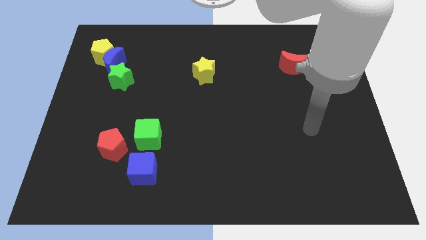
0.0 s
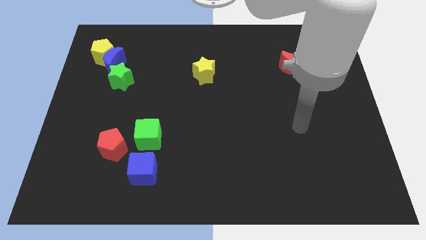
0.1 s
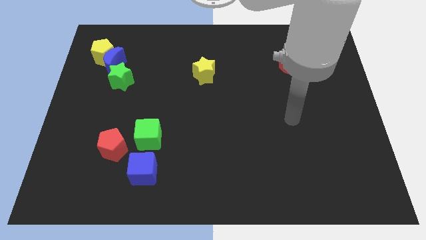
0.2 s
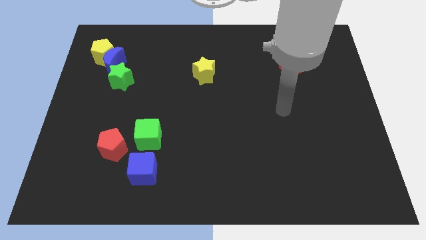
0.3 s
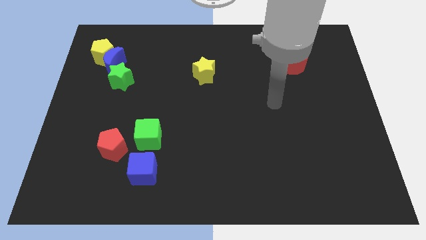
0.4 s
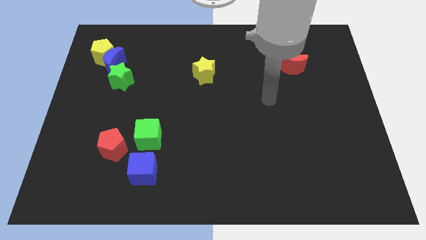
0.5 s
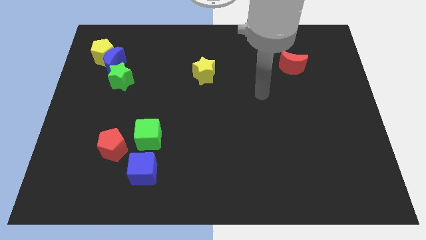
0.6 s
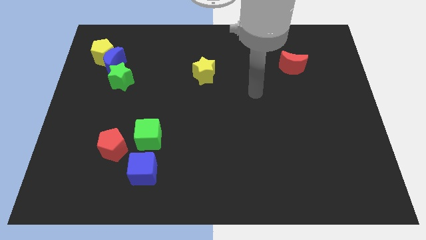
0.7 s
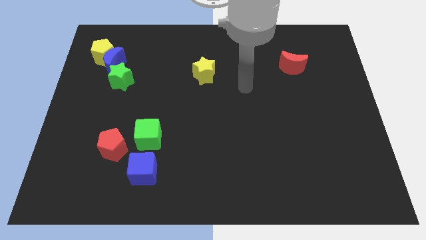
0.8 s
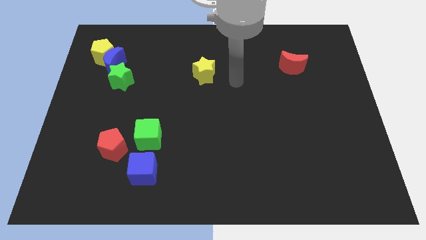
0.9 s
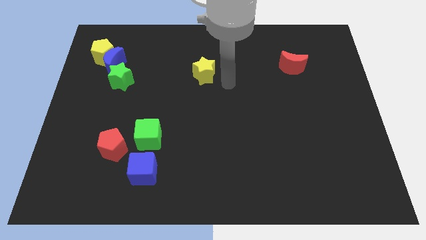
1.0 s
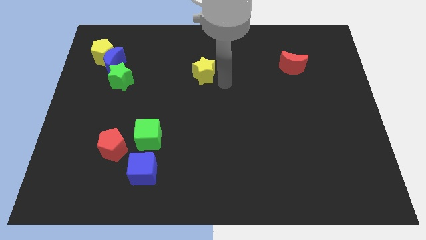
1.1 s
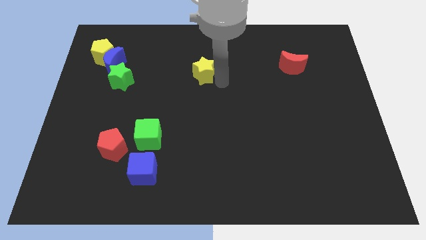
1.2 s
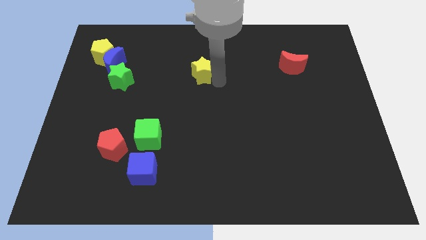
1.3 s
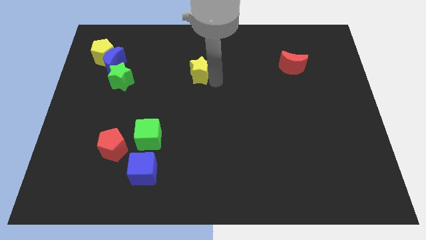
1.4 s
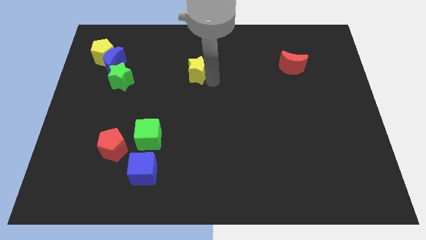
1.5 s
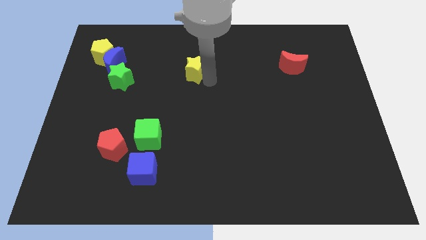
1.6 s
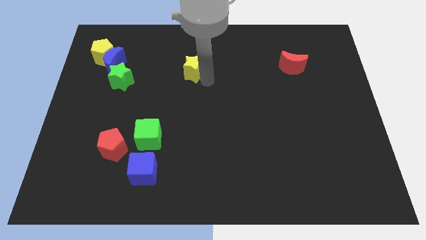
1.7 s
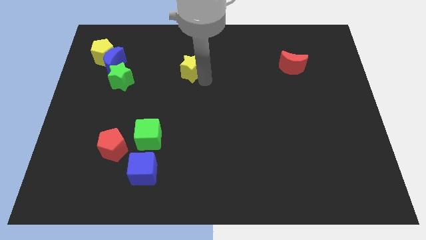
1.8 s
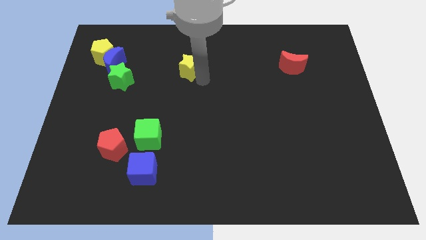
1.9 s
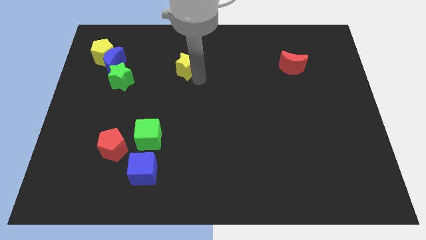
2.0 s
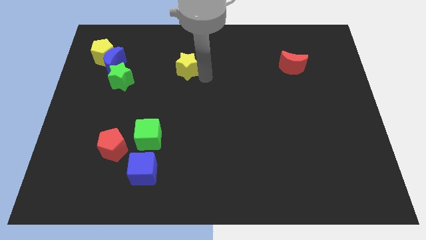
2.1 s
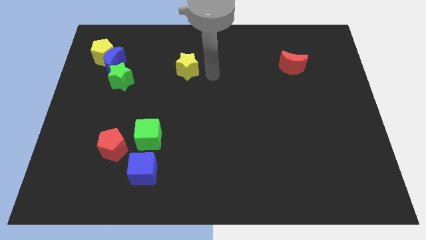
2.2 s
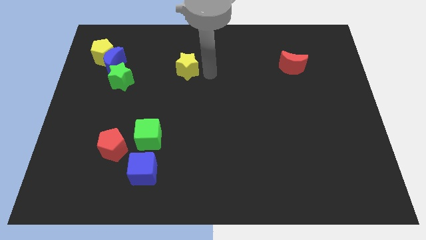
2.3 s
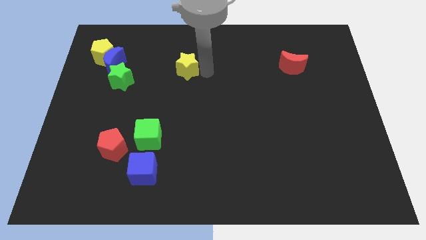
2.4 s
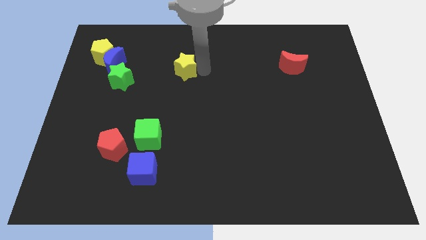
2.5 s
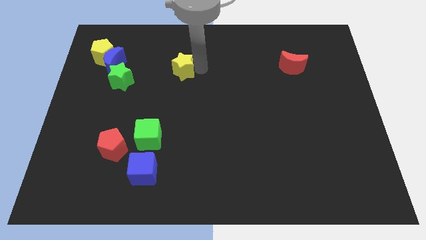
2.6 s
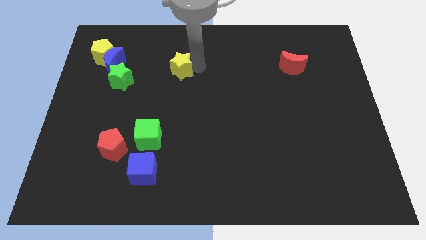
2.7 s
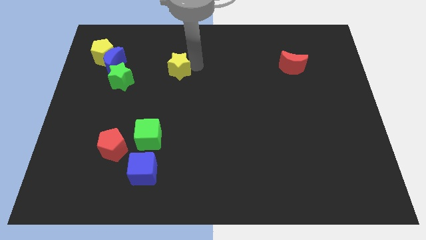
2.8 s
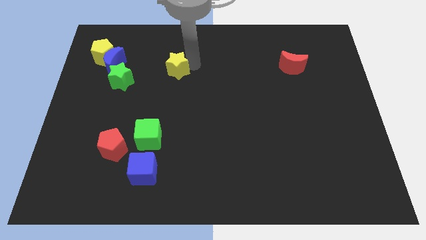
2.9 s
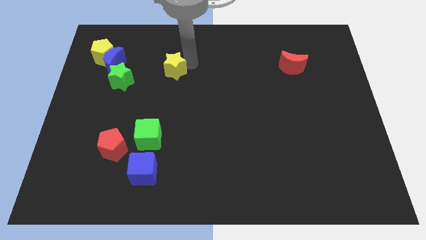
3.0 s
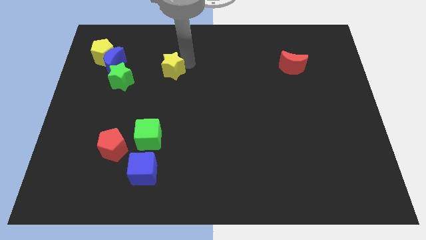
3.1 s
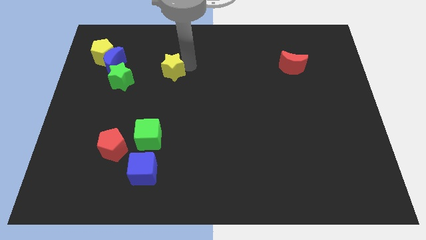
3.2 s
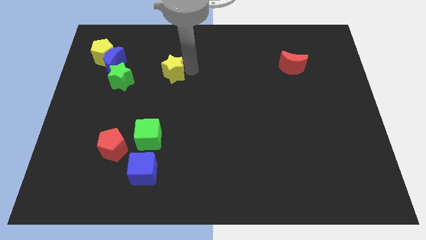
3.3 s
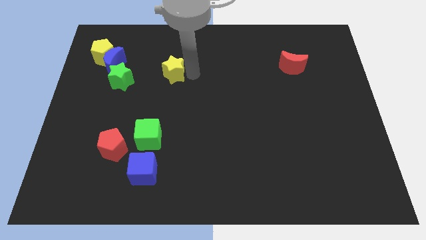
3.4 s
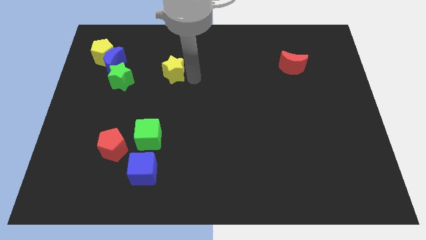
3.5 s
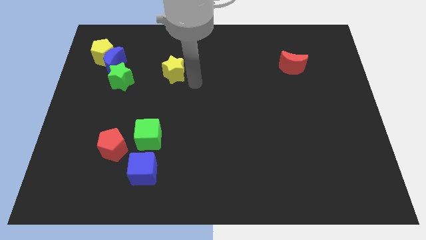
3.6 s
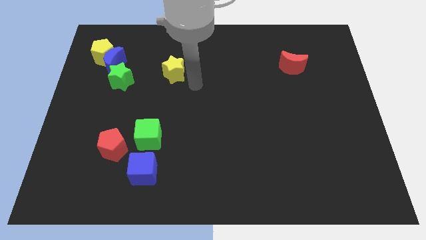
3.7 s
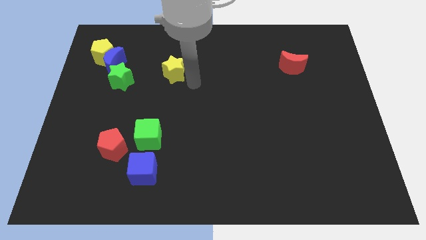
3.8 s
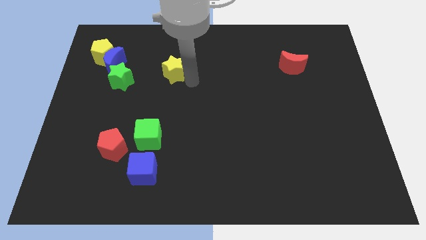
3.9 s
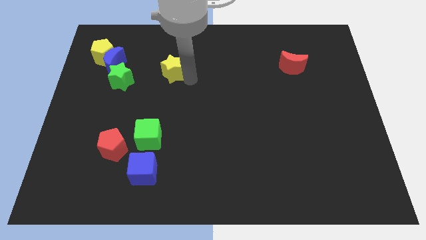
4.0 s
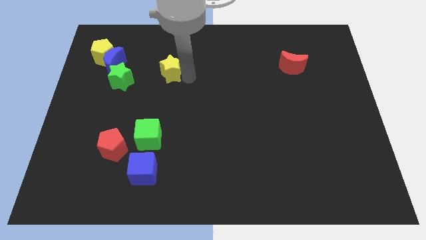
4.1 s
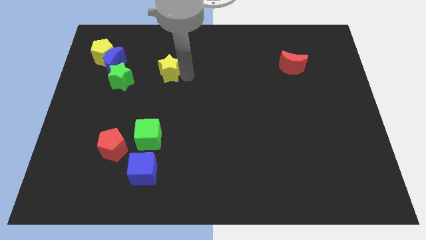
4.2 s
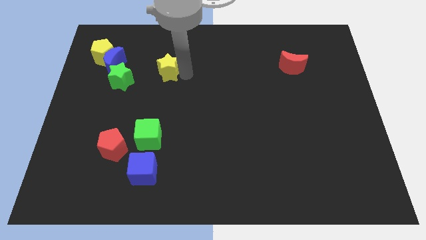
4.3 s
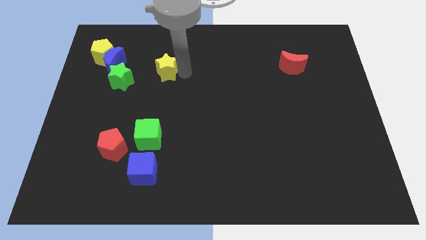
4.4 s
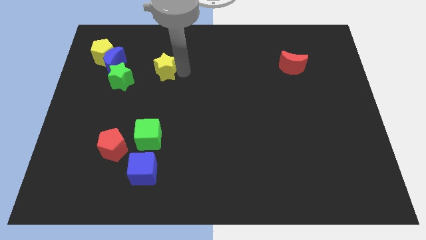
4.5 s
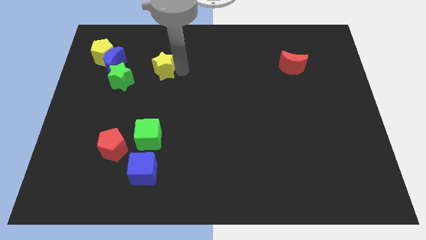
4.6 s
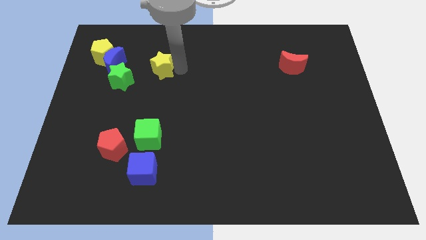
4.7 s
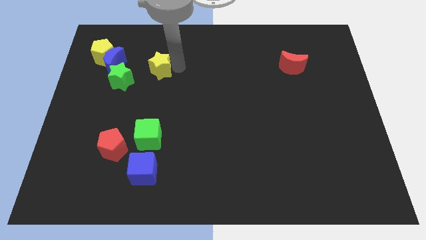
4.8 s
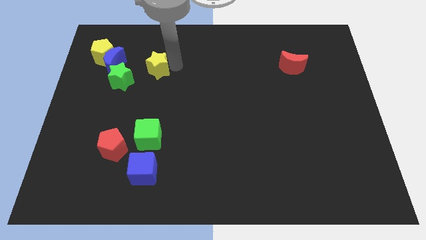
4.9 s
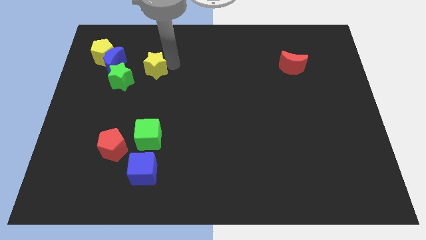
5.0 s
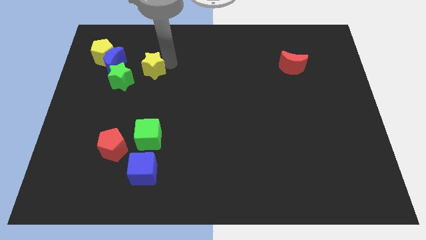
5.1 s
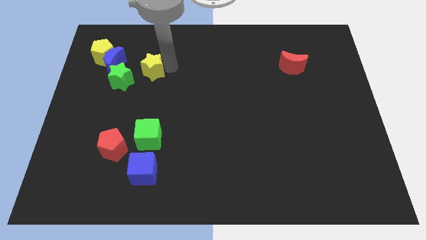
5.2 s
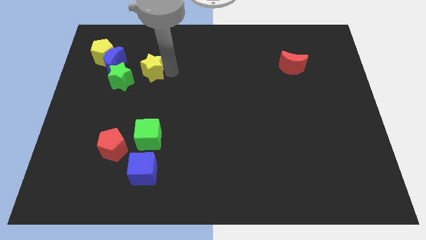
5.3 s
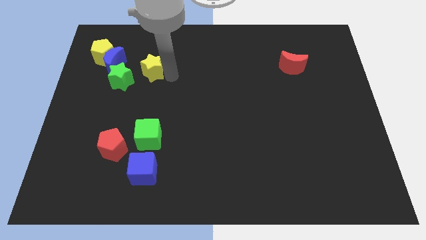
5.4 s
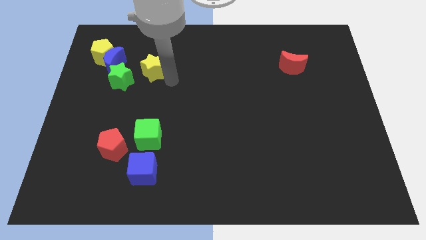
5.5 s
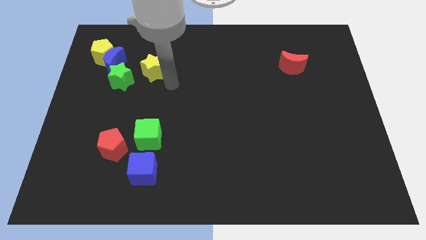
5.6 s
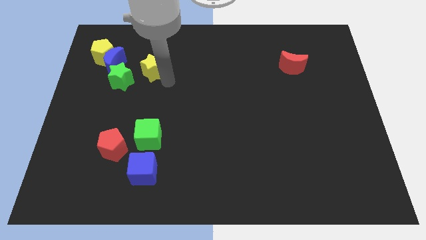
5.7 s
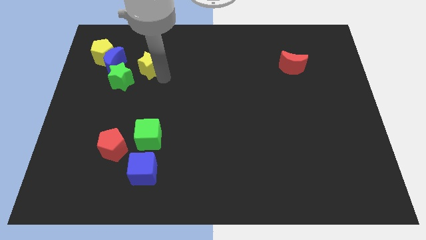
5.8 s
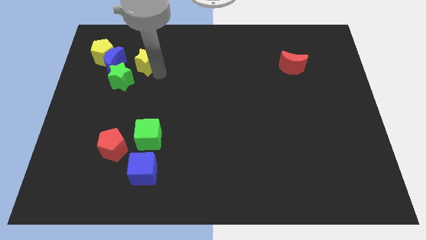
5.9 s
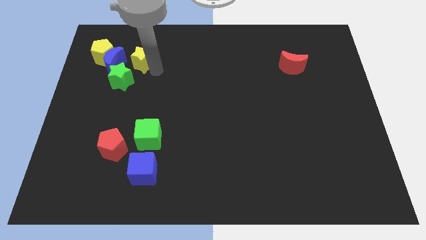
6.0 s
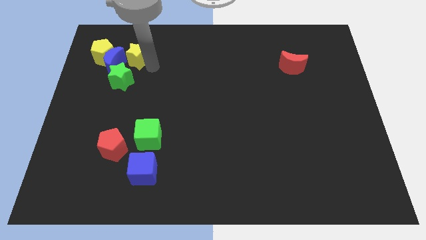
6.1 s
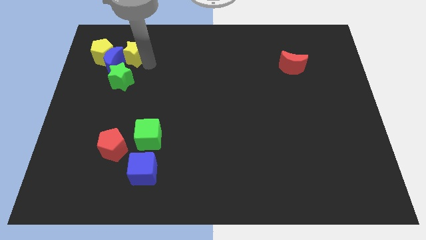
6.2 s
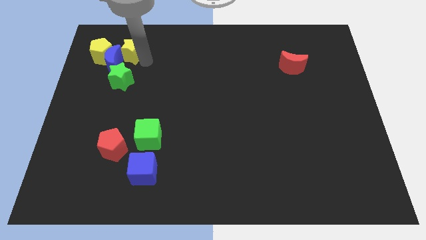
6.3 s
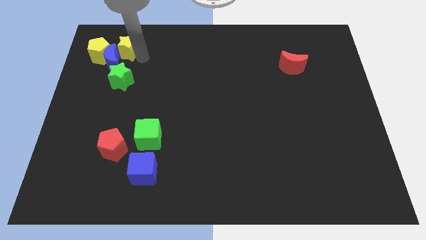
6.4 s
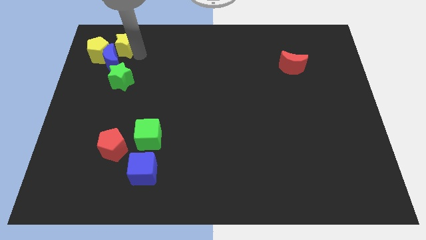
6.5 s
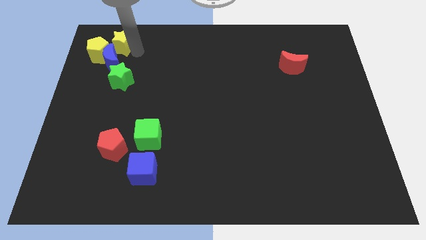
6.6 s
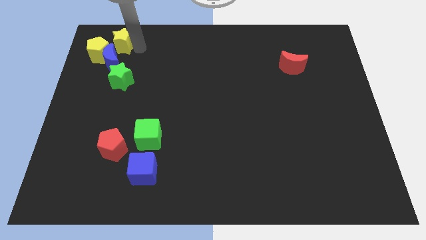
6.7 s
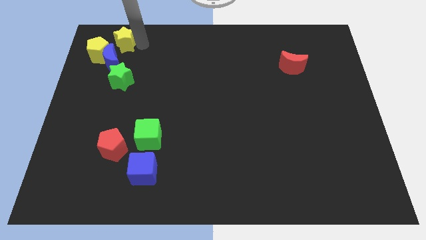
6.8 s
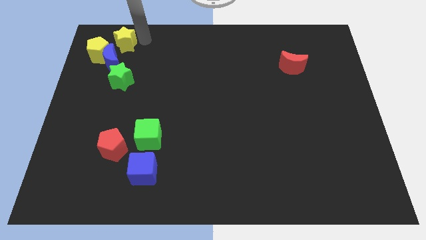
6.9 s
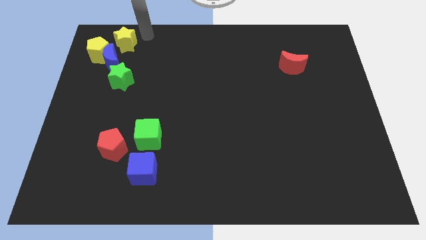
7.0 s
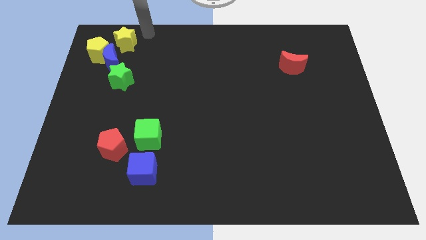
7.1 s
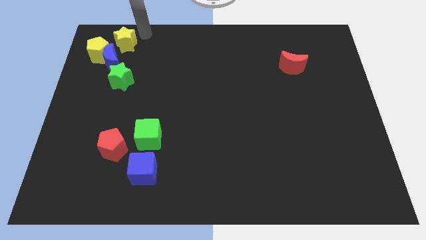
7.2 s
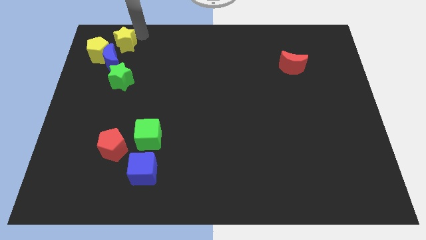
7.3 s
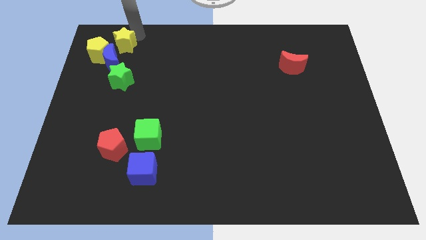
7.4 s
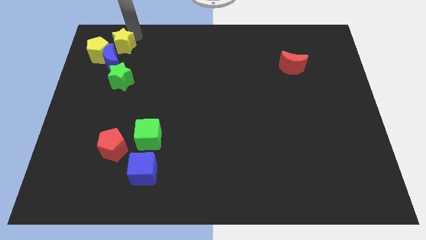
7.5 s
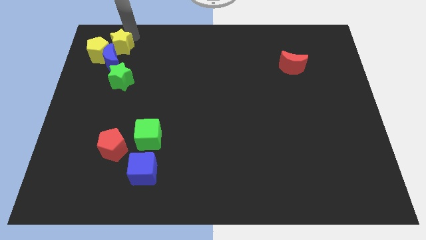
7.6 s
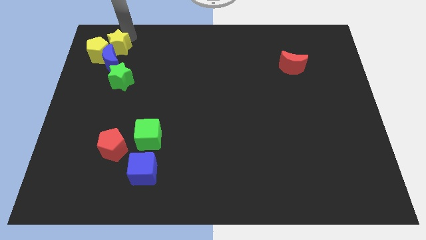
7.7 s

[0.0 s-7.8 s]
slide the yellow star close to the yellow pentagon
